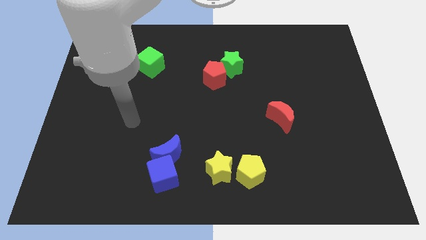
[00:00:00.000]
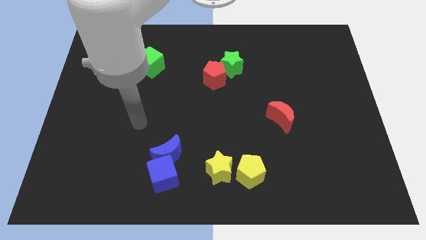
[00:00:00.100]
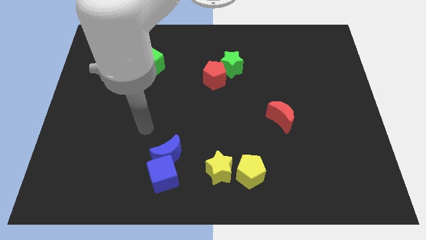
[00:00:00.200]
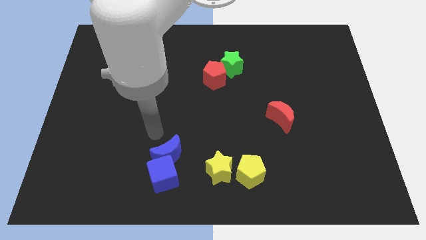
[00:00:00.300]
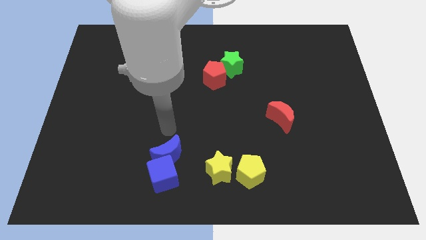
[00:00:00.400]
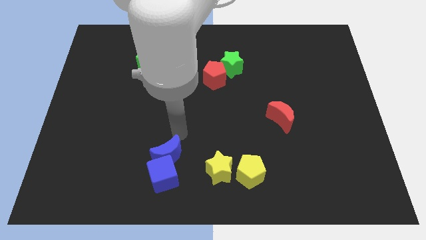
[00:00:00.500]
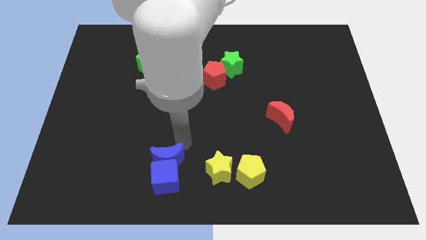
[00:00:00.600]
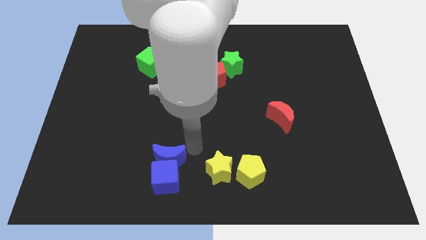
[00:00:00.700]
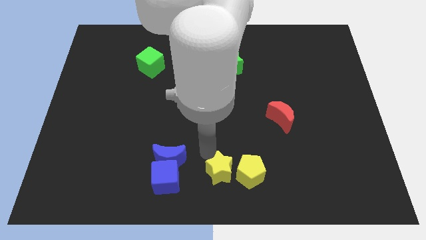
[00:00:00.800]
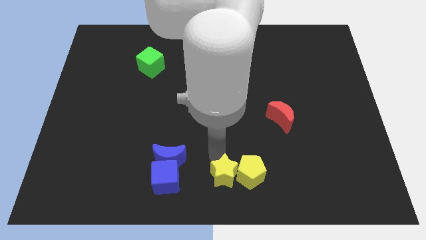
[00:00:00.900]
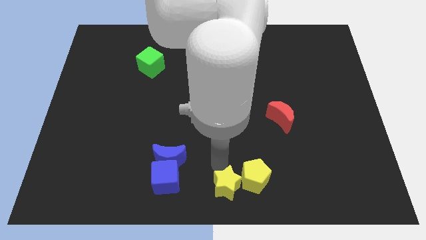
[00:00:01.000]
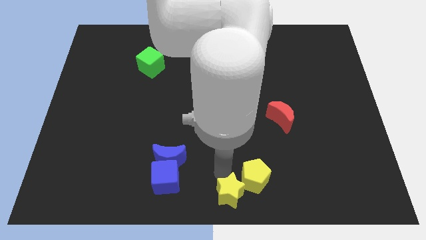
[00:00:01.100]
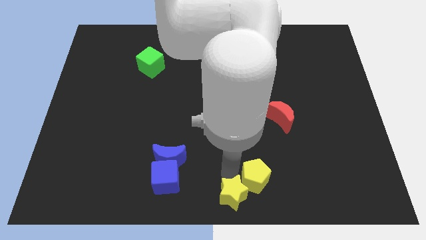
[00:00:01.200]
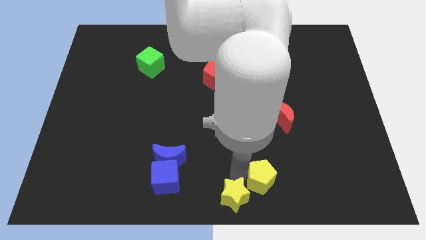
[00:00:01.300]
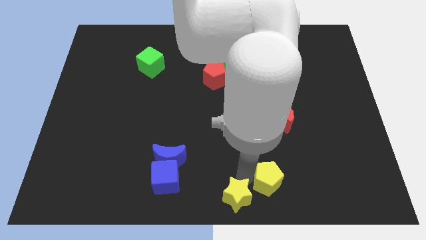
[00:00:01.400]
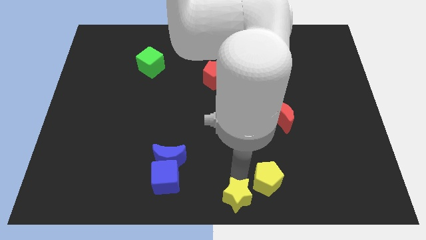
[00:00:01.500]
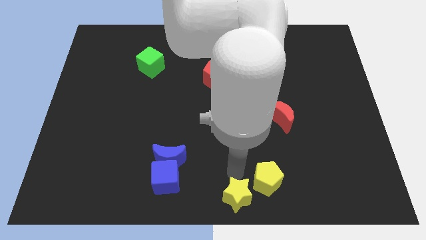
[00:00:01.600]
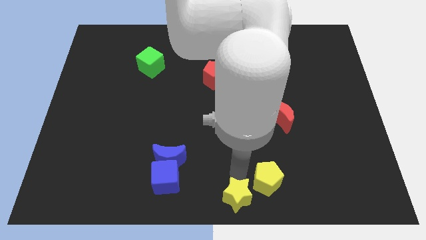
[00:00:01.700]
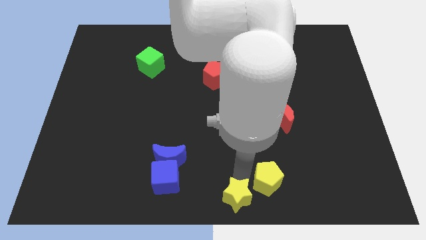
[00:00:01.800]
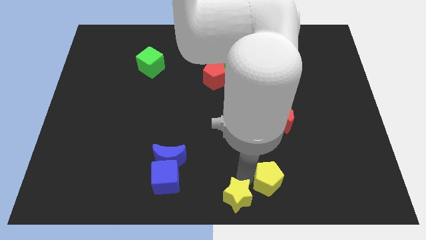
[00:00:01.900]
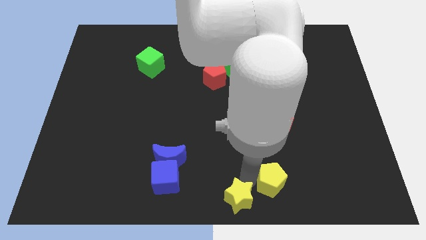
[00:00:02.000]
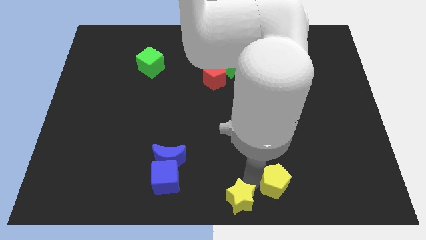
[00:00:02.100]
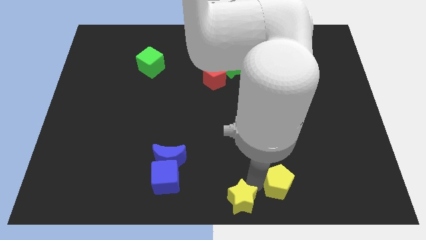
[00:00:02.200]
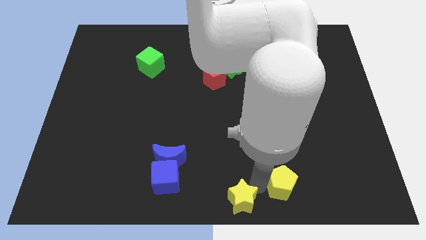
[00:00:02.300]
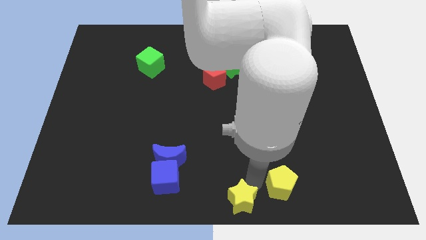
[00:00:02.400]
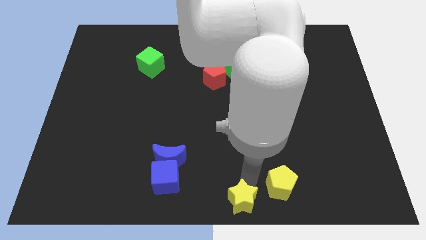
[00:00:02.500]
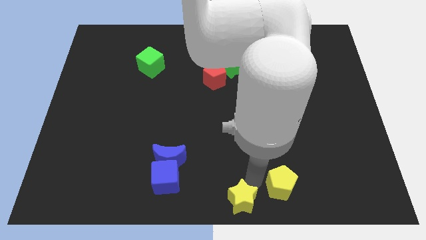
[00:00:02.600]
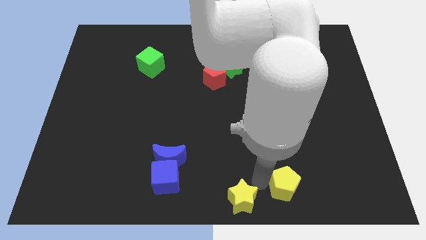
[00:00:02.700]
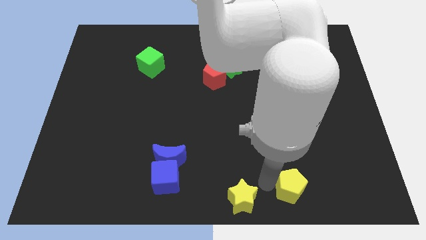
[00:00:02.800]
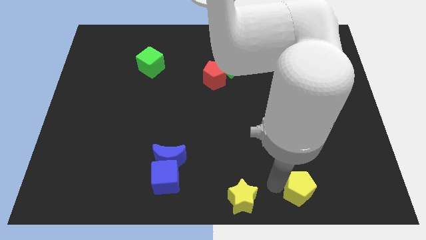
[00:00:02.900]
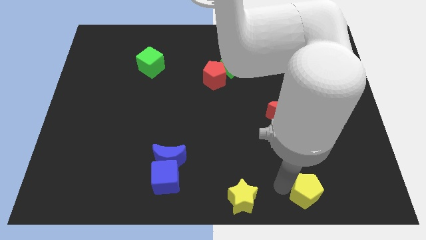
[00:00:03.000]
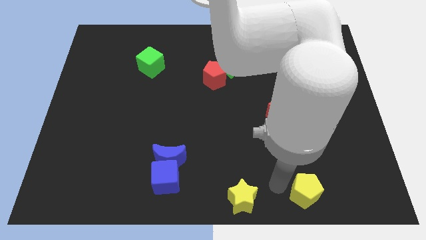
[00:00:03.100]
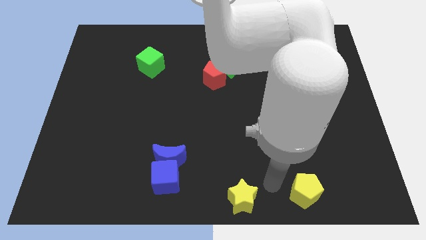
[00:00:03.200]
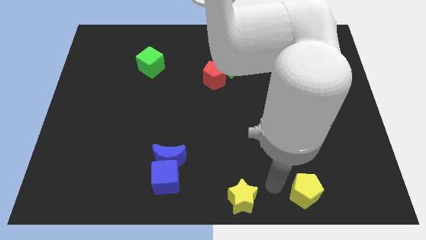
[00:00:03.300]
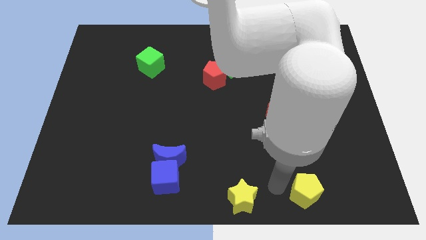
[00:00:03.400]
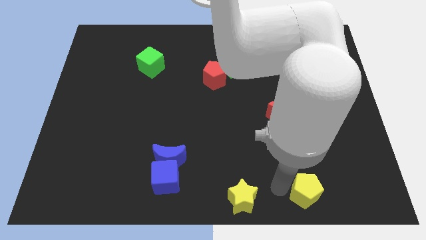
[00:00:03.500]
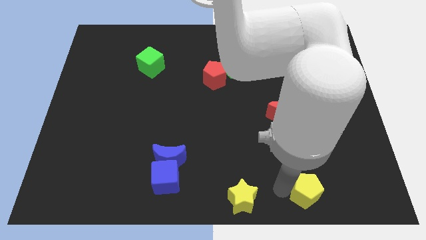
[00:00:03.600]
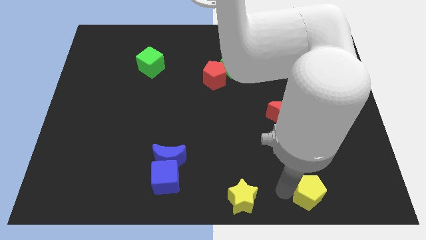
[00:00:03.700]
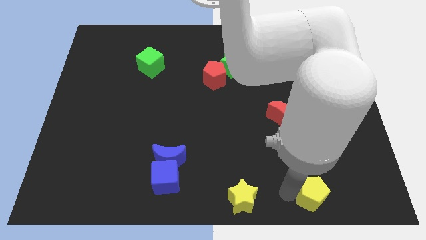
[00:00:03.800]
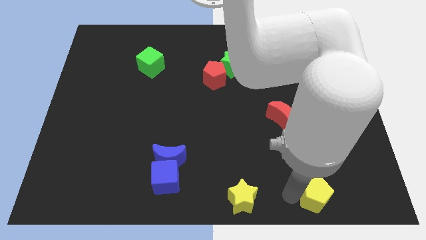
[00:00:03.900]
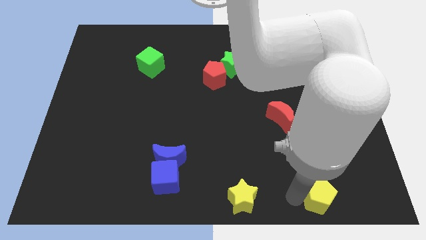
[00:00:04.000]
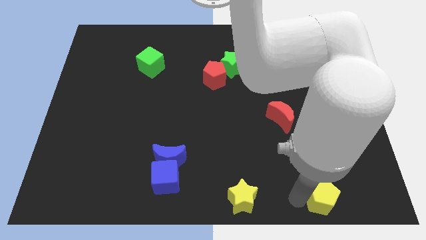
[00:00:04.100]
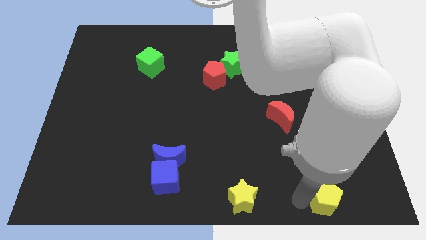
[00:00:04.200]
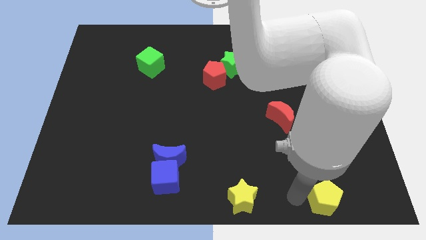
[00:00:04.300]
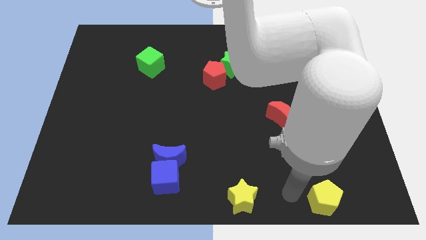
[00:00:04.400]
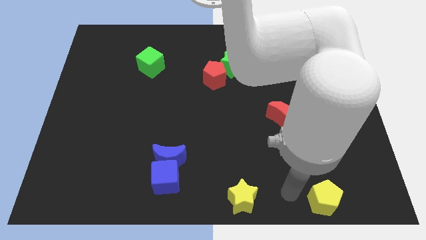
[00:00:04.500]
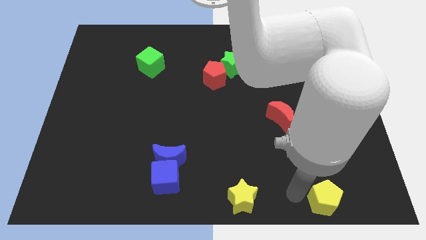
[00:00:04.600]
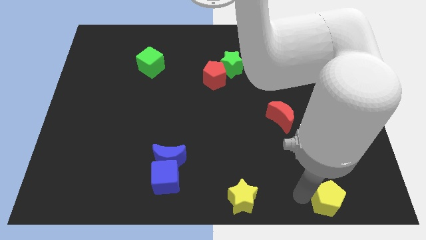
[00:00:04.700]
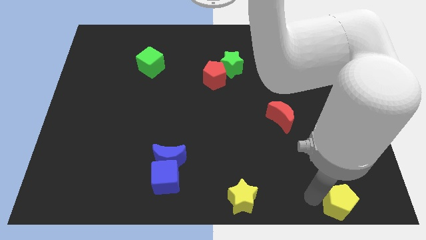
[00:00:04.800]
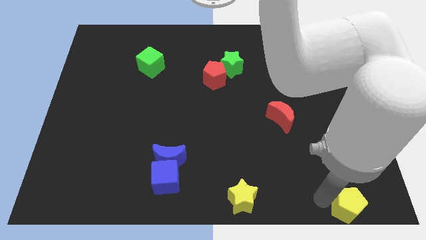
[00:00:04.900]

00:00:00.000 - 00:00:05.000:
slide the yellow pentagon to the bottom right of the board

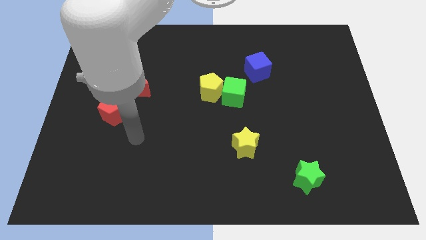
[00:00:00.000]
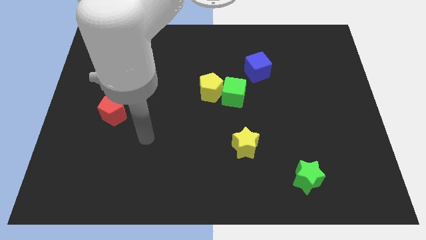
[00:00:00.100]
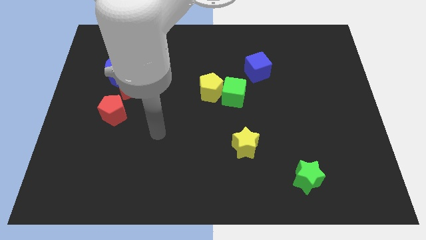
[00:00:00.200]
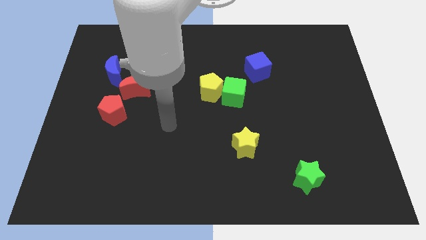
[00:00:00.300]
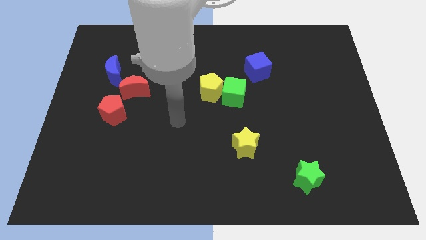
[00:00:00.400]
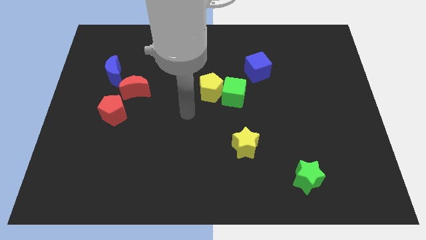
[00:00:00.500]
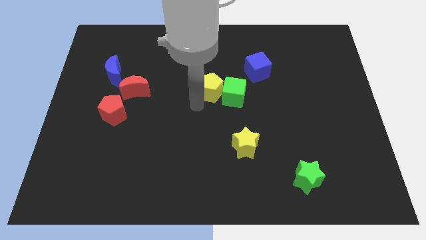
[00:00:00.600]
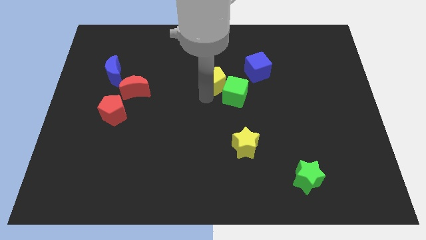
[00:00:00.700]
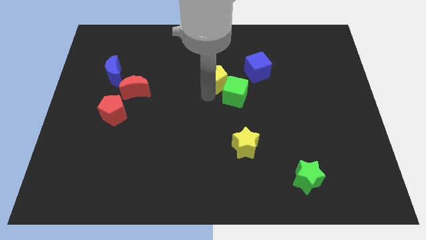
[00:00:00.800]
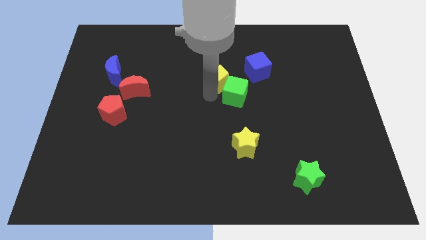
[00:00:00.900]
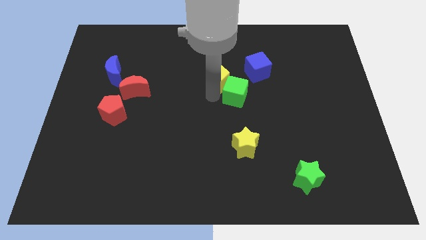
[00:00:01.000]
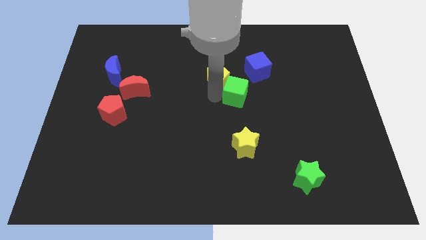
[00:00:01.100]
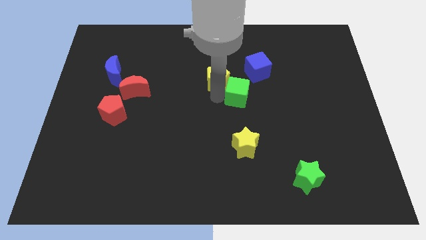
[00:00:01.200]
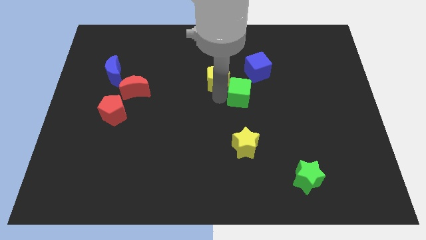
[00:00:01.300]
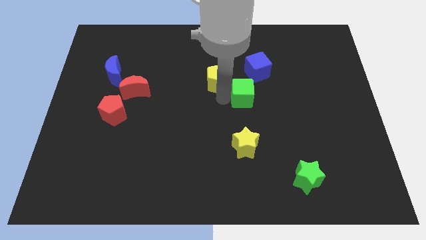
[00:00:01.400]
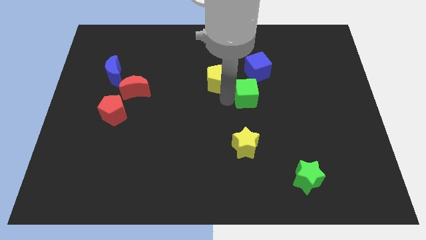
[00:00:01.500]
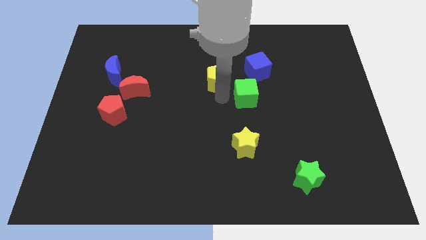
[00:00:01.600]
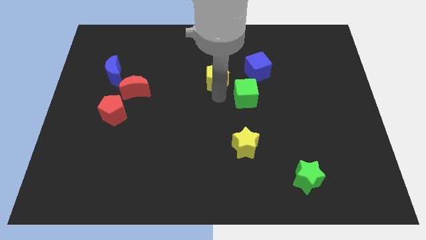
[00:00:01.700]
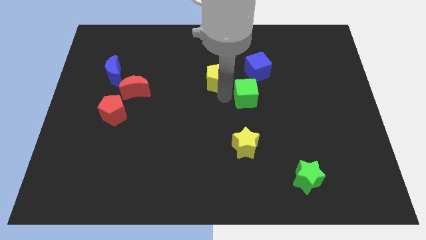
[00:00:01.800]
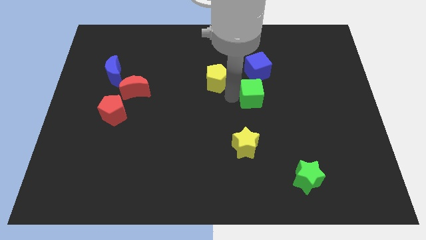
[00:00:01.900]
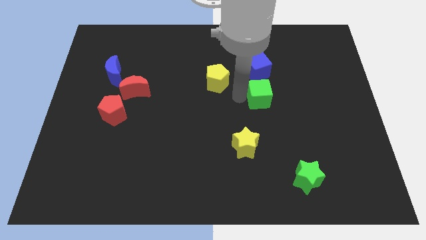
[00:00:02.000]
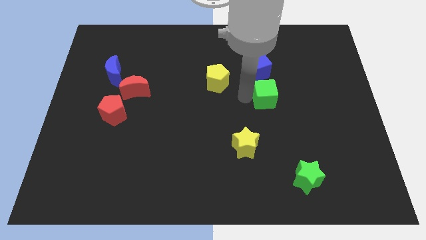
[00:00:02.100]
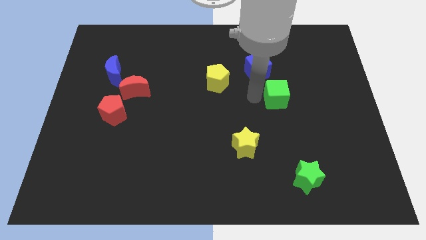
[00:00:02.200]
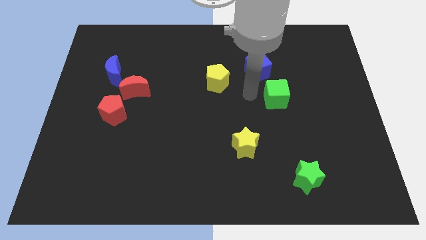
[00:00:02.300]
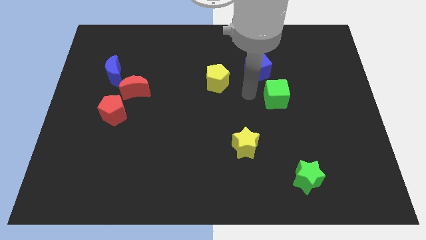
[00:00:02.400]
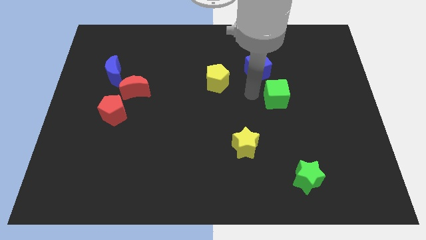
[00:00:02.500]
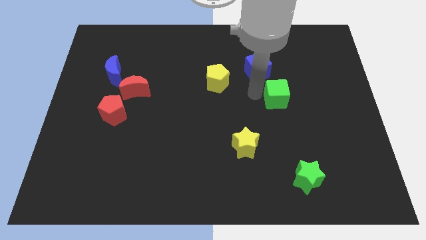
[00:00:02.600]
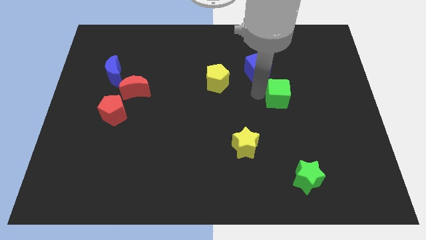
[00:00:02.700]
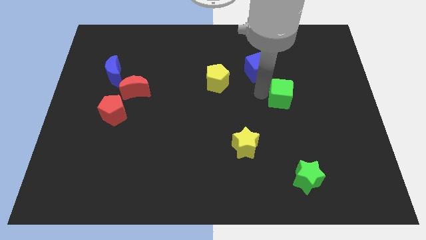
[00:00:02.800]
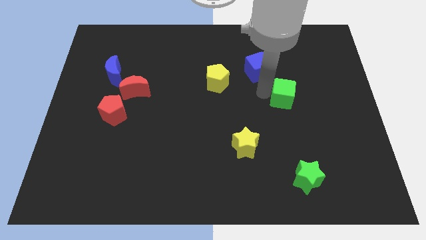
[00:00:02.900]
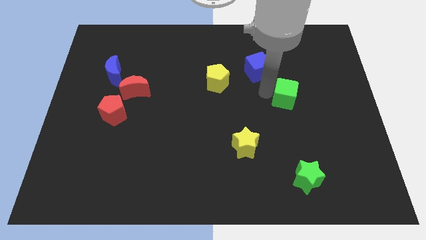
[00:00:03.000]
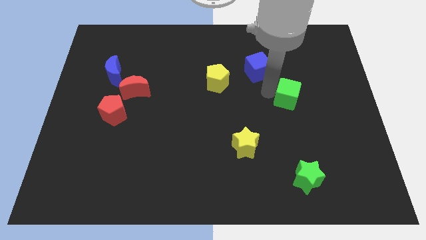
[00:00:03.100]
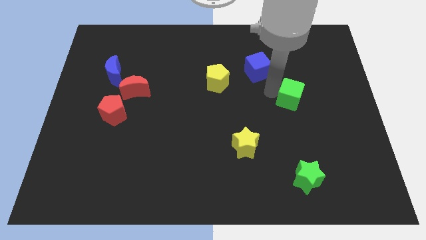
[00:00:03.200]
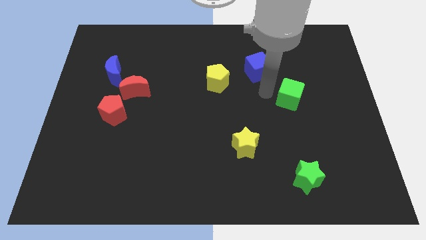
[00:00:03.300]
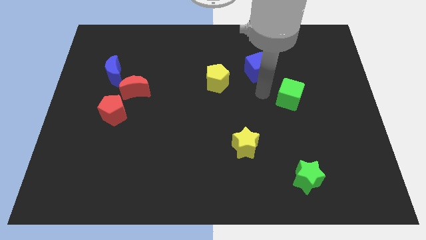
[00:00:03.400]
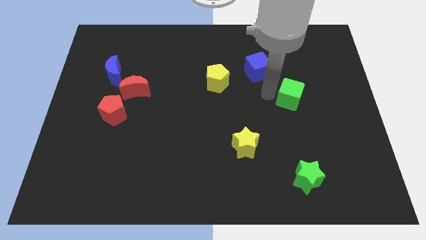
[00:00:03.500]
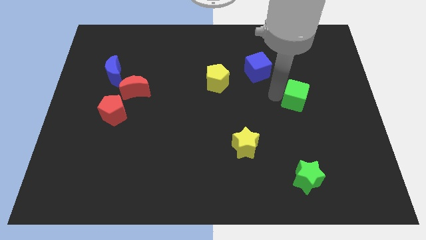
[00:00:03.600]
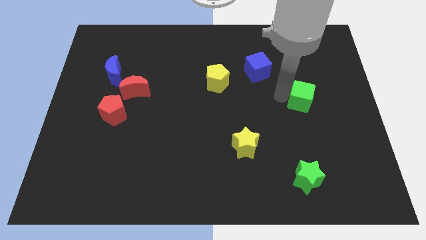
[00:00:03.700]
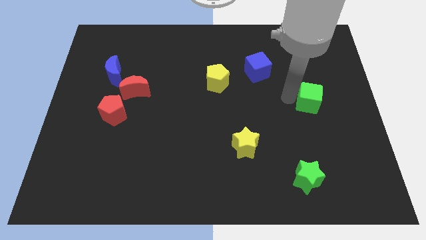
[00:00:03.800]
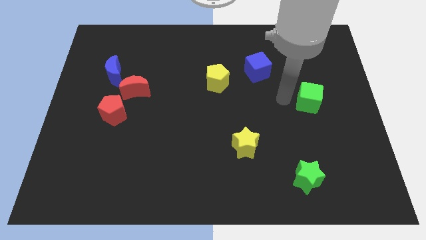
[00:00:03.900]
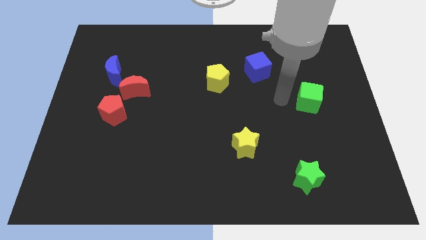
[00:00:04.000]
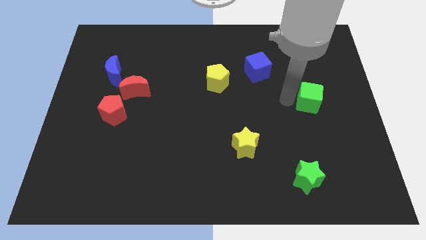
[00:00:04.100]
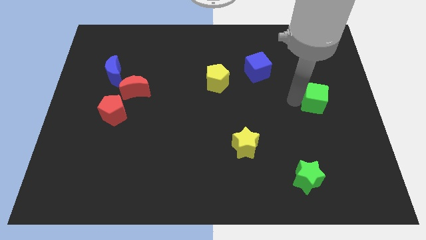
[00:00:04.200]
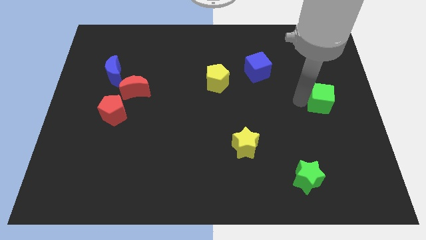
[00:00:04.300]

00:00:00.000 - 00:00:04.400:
put the green cube to the right side of the board
